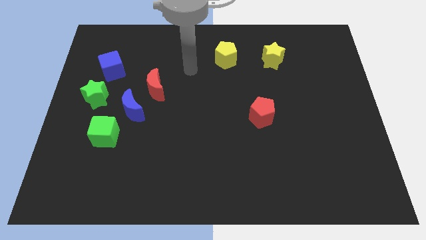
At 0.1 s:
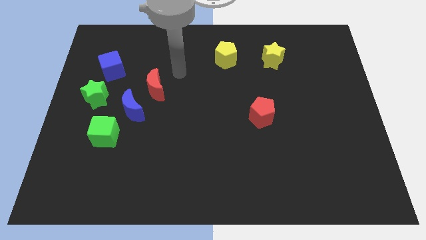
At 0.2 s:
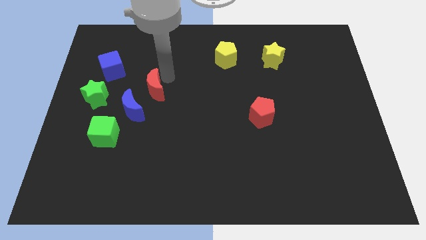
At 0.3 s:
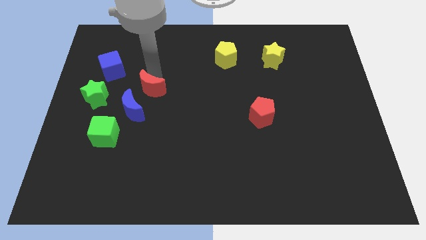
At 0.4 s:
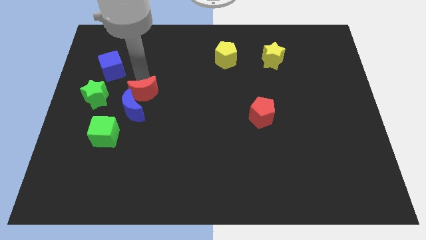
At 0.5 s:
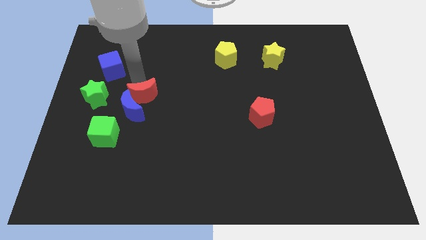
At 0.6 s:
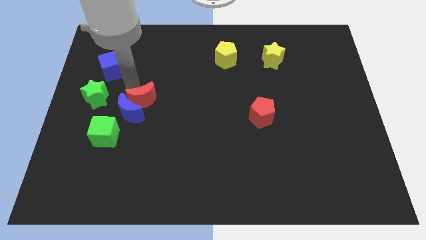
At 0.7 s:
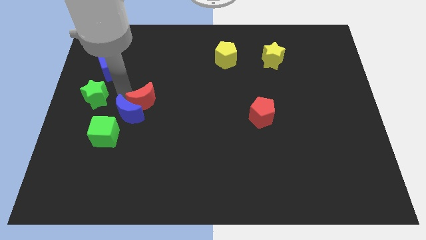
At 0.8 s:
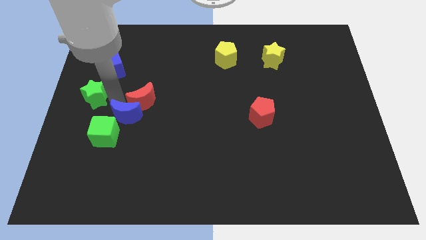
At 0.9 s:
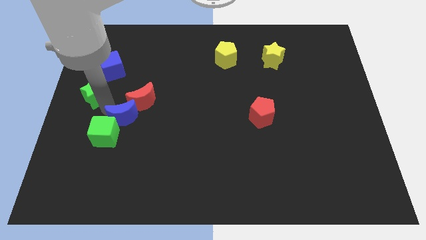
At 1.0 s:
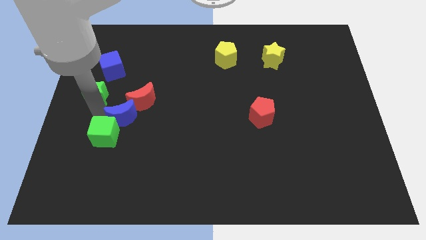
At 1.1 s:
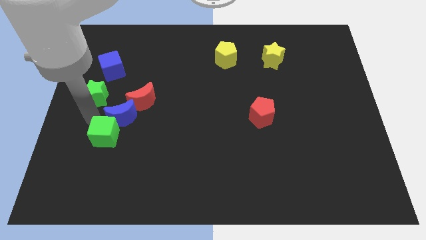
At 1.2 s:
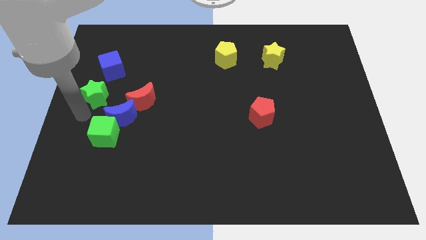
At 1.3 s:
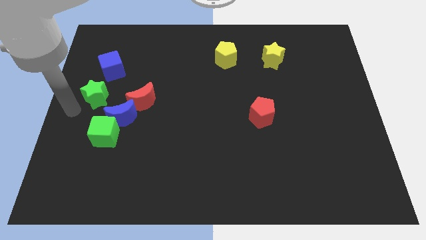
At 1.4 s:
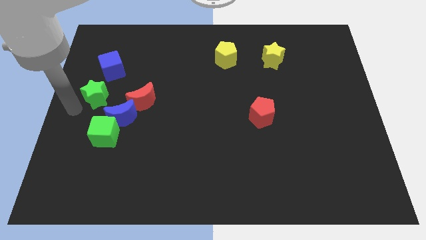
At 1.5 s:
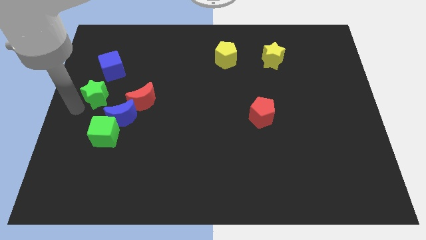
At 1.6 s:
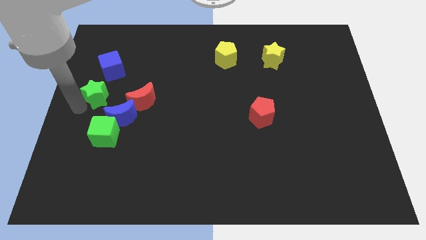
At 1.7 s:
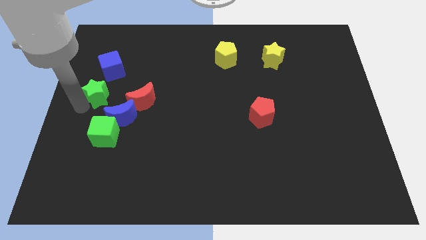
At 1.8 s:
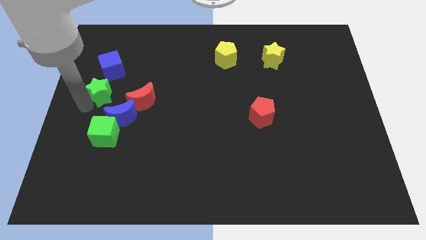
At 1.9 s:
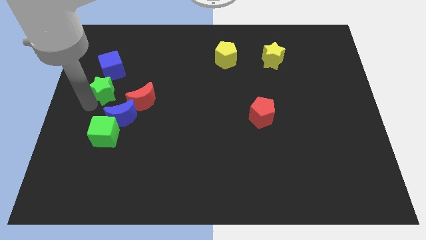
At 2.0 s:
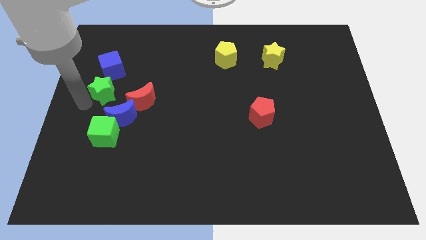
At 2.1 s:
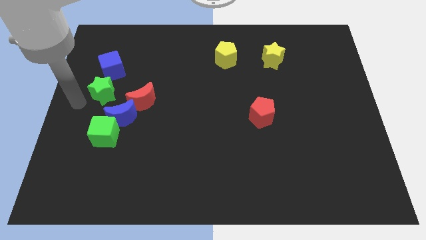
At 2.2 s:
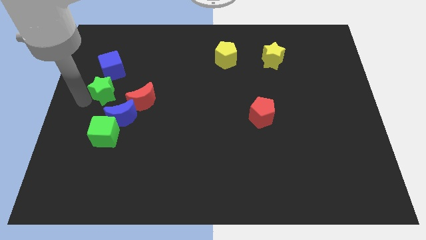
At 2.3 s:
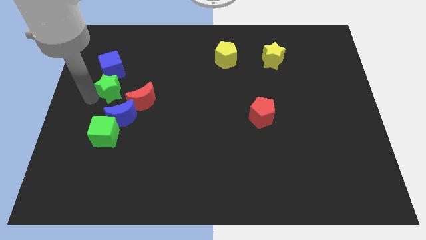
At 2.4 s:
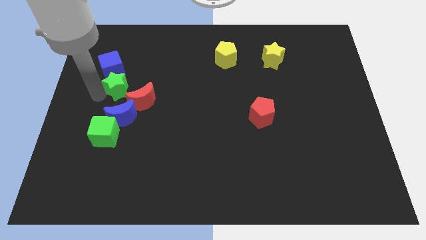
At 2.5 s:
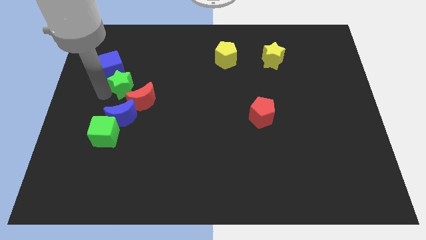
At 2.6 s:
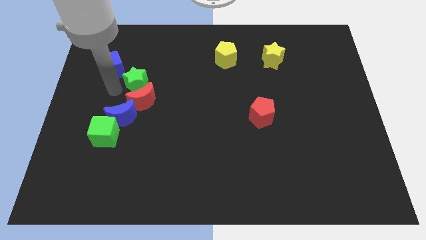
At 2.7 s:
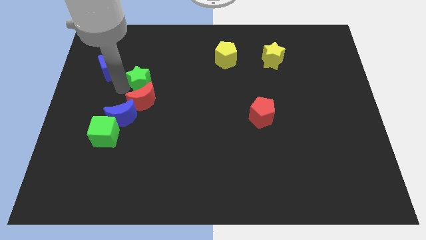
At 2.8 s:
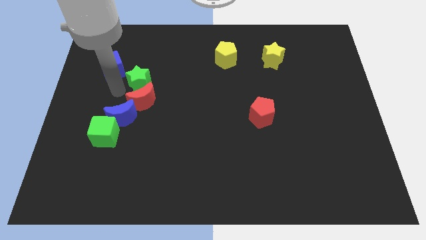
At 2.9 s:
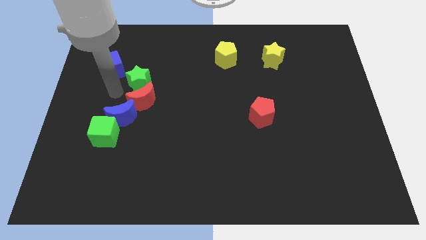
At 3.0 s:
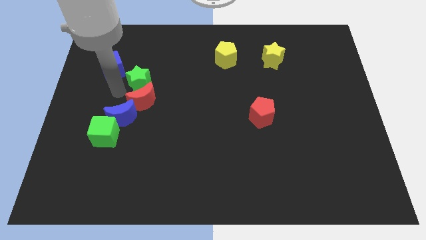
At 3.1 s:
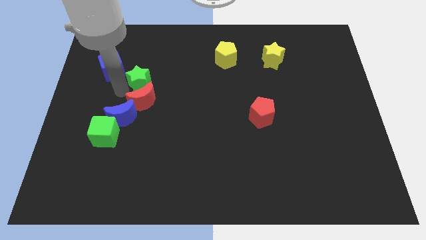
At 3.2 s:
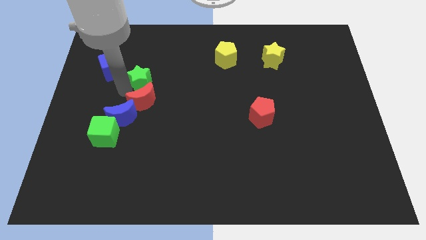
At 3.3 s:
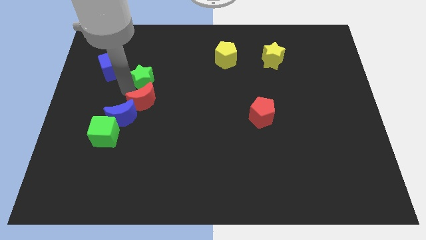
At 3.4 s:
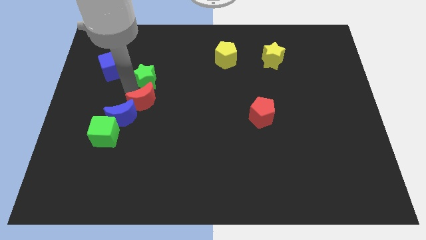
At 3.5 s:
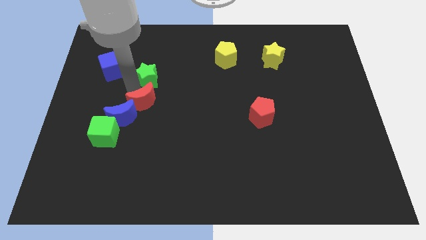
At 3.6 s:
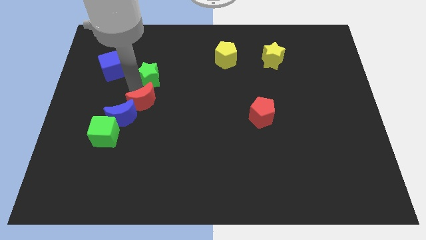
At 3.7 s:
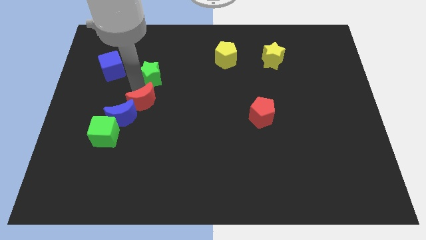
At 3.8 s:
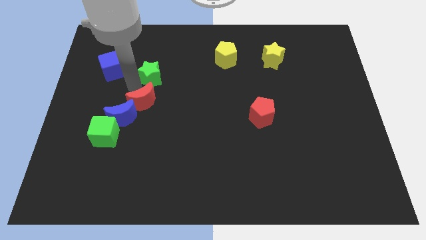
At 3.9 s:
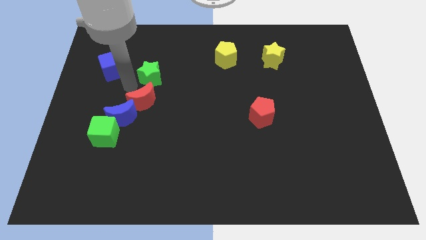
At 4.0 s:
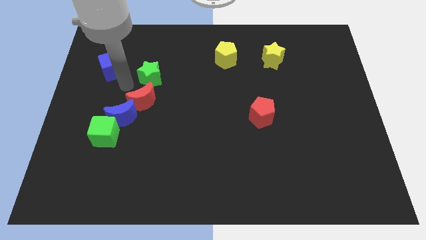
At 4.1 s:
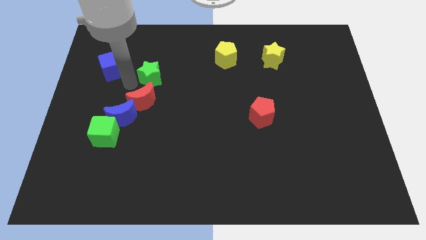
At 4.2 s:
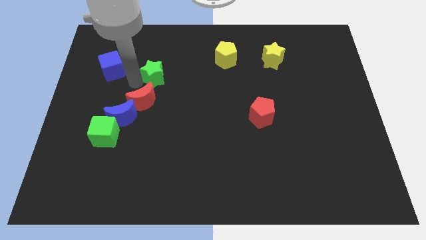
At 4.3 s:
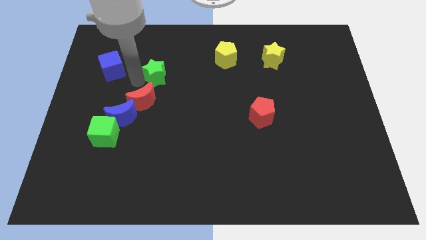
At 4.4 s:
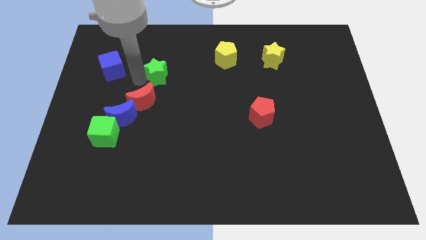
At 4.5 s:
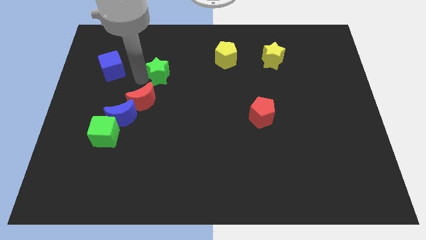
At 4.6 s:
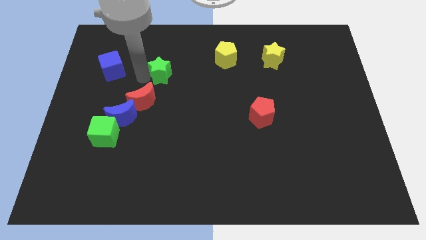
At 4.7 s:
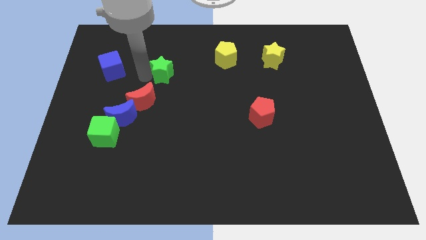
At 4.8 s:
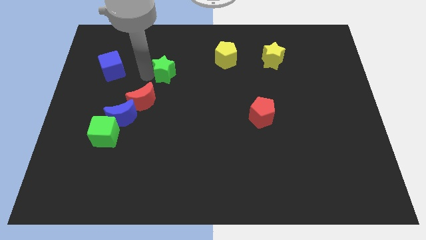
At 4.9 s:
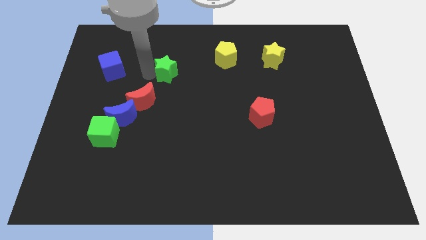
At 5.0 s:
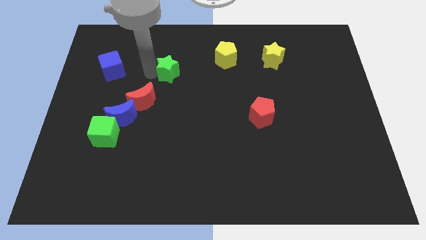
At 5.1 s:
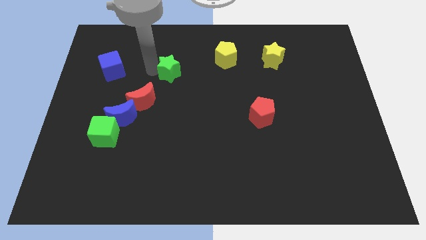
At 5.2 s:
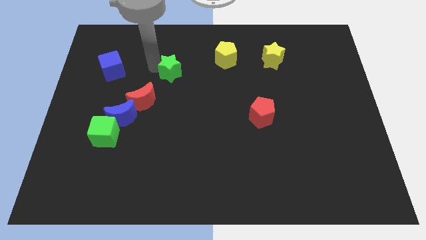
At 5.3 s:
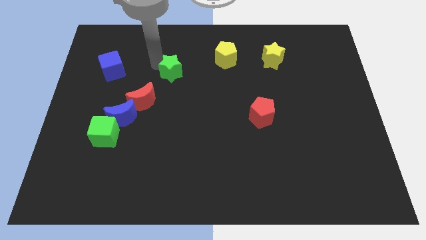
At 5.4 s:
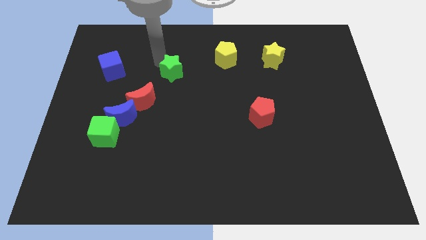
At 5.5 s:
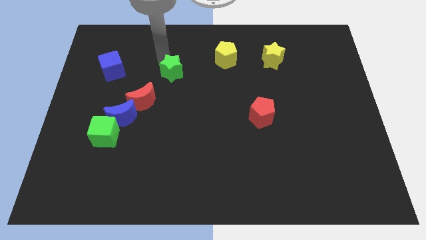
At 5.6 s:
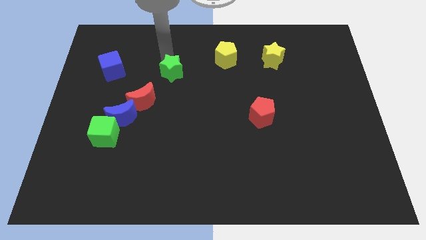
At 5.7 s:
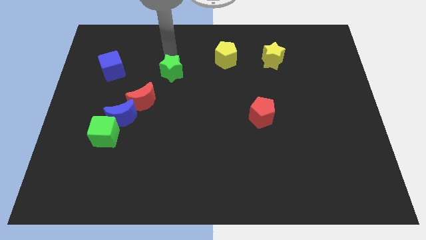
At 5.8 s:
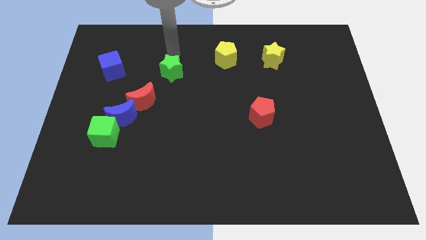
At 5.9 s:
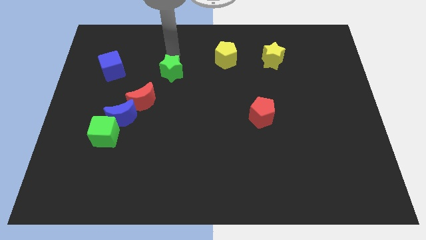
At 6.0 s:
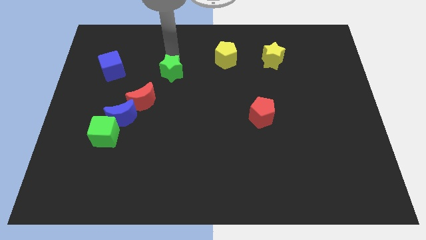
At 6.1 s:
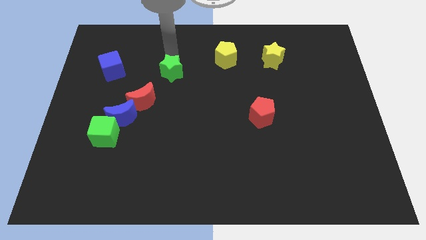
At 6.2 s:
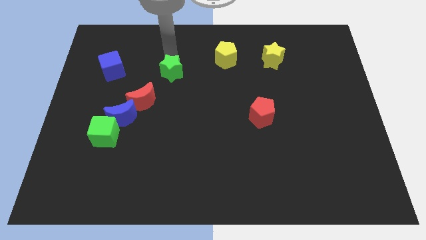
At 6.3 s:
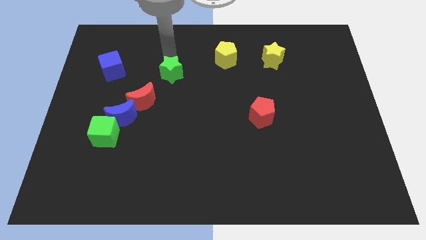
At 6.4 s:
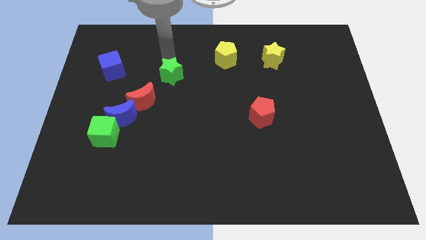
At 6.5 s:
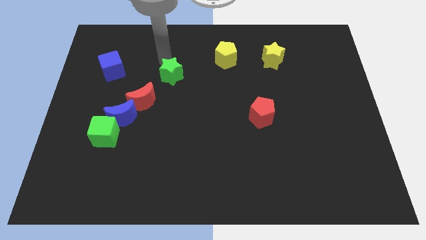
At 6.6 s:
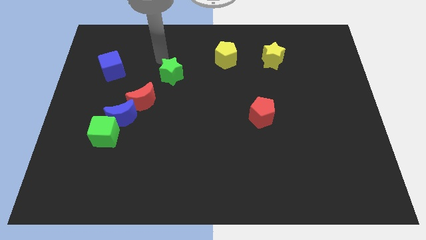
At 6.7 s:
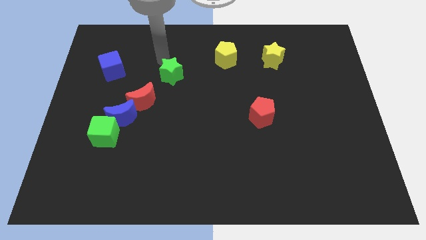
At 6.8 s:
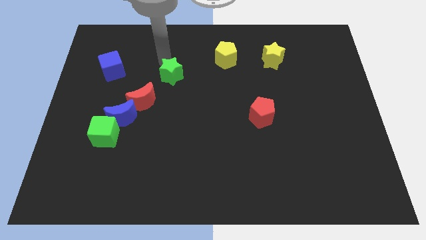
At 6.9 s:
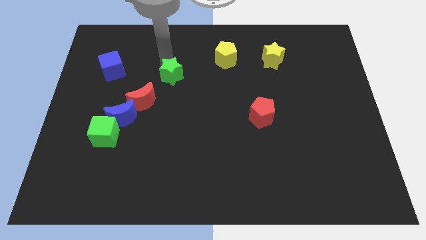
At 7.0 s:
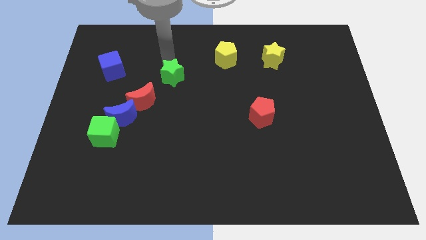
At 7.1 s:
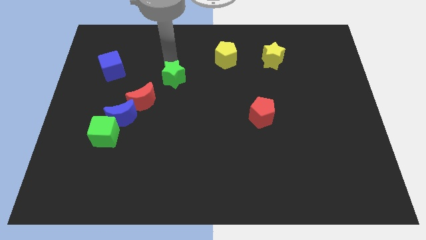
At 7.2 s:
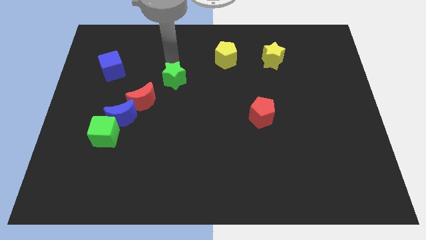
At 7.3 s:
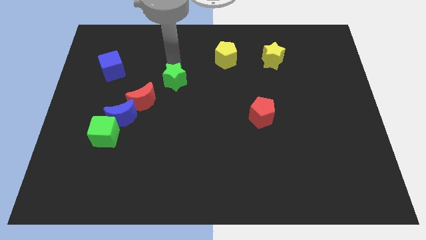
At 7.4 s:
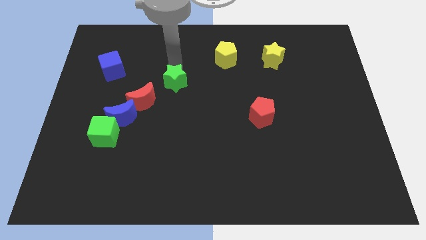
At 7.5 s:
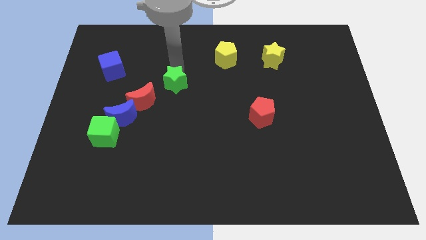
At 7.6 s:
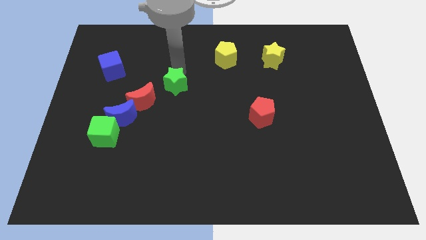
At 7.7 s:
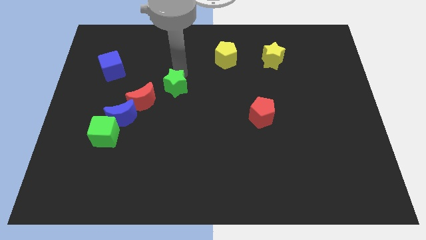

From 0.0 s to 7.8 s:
push the green star to the right side of the red moon

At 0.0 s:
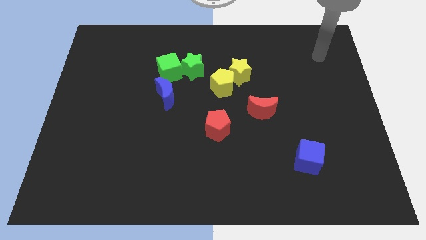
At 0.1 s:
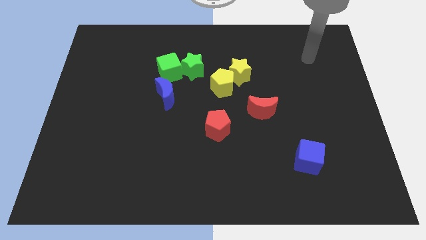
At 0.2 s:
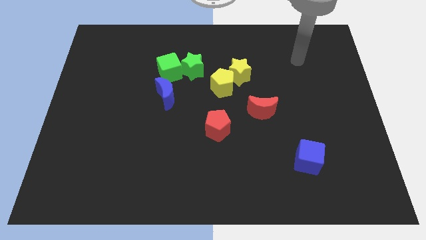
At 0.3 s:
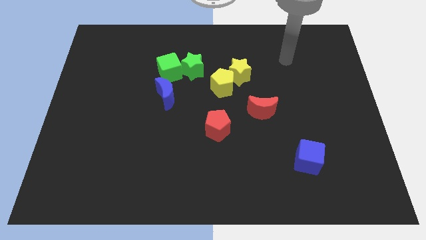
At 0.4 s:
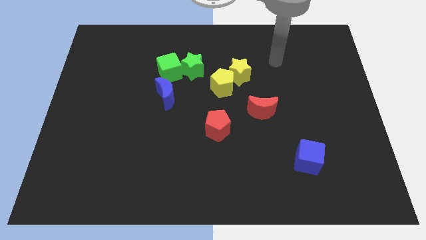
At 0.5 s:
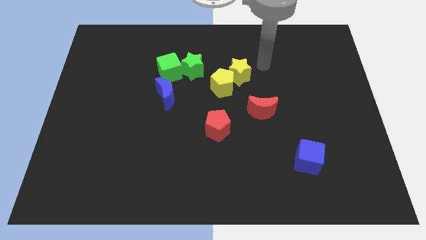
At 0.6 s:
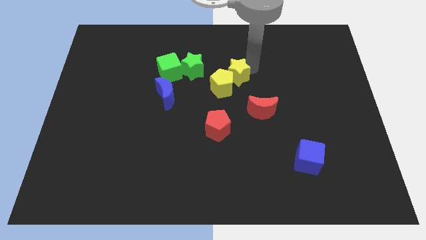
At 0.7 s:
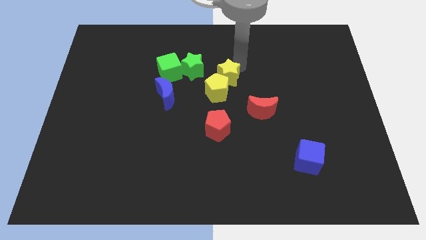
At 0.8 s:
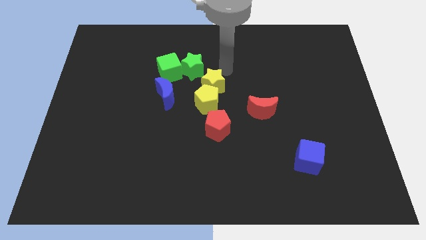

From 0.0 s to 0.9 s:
slide the yellow pentagon just left of the red moon
